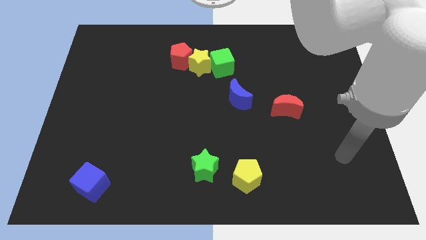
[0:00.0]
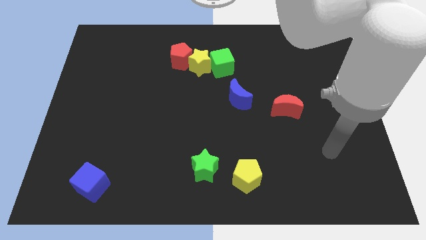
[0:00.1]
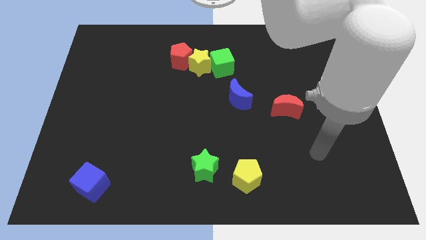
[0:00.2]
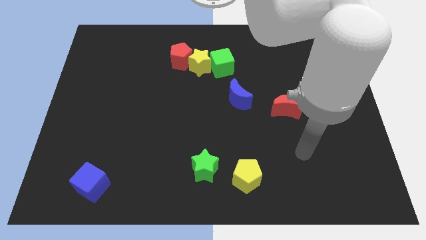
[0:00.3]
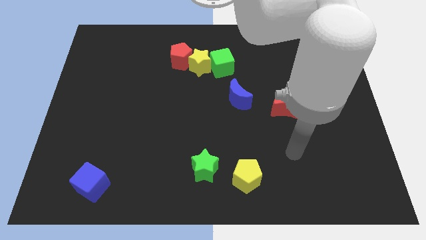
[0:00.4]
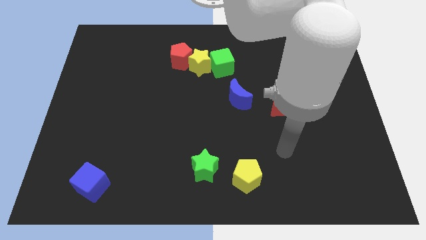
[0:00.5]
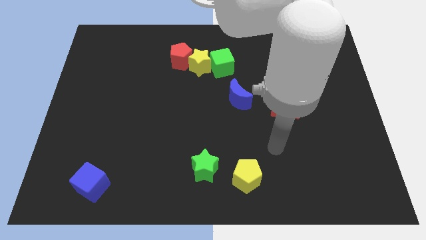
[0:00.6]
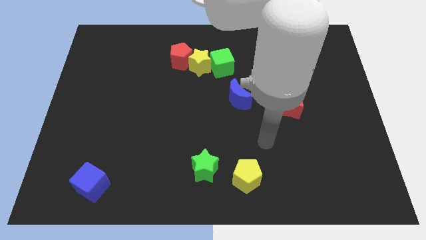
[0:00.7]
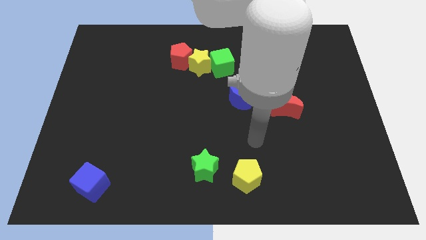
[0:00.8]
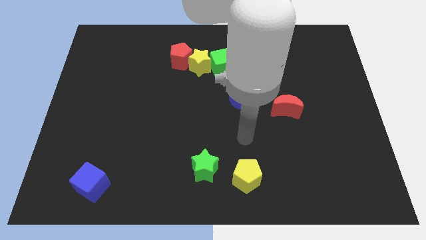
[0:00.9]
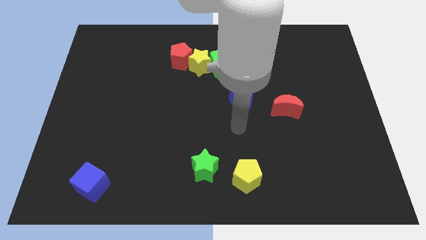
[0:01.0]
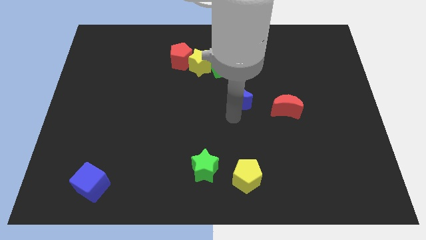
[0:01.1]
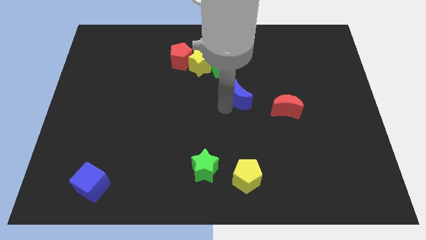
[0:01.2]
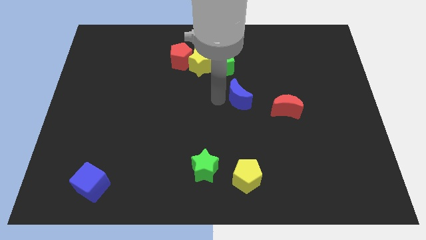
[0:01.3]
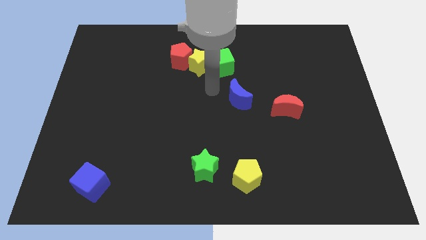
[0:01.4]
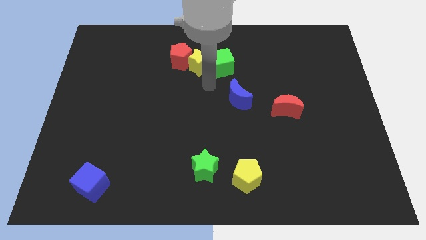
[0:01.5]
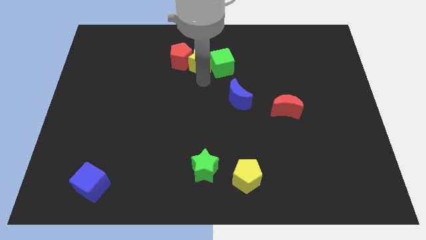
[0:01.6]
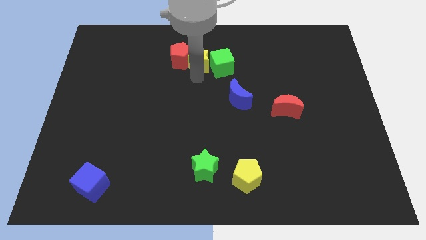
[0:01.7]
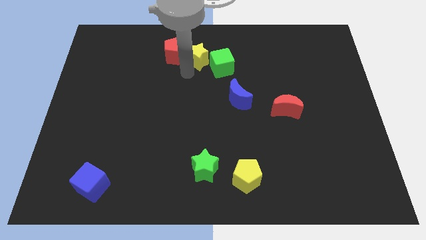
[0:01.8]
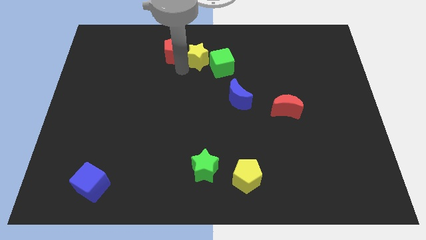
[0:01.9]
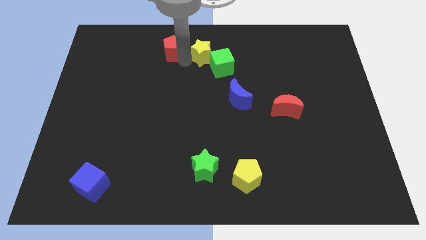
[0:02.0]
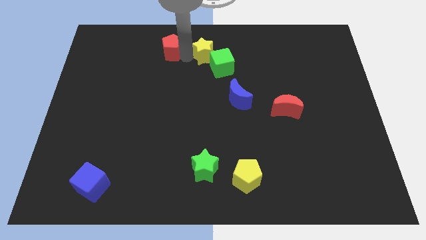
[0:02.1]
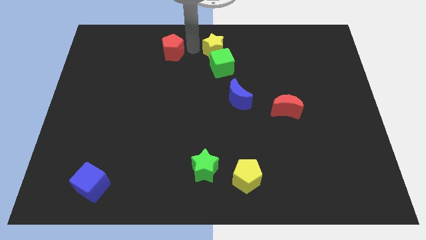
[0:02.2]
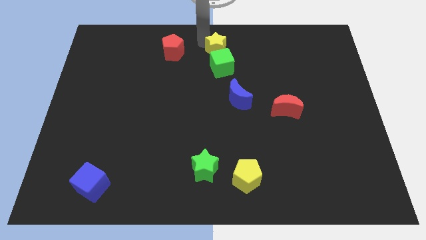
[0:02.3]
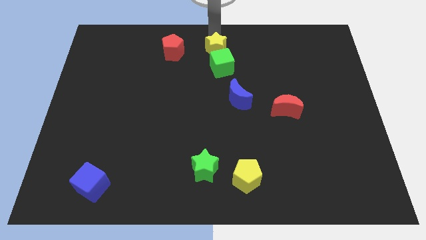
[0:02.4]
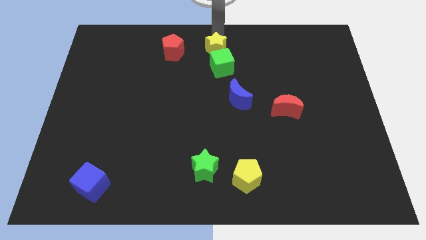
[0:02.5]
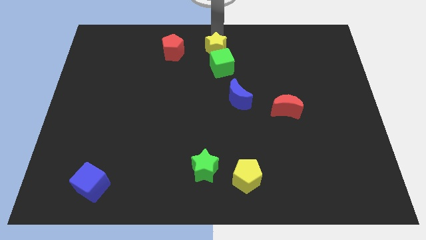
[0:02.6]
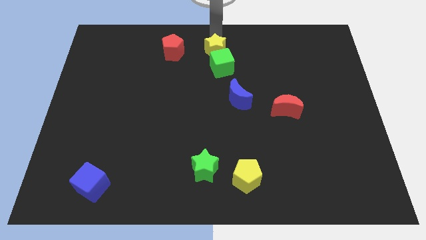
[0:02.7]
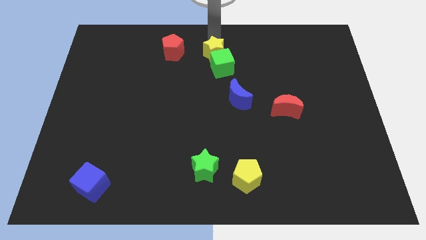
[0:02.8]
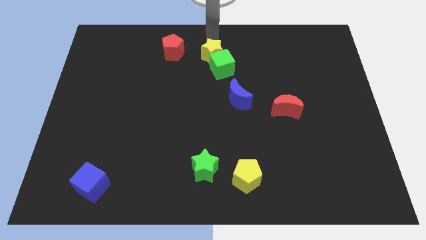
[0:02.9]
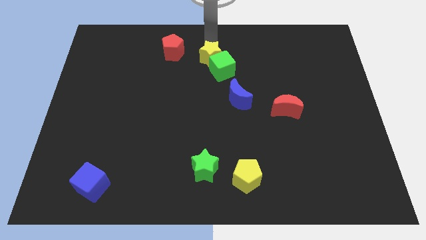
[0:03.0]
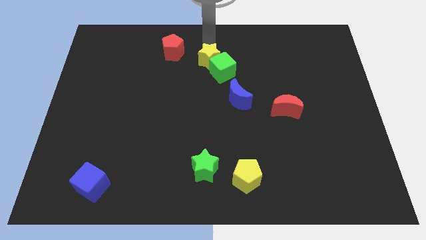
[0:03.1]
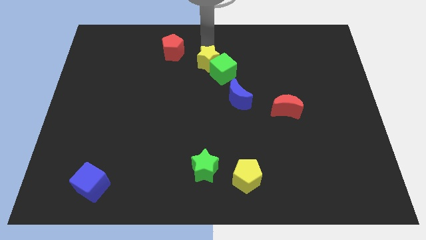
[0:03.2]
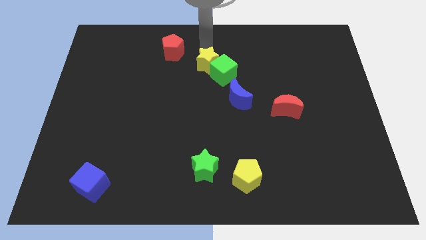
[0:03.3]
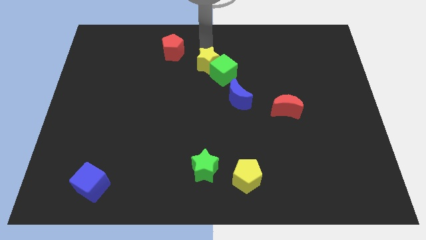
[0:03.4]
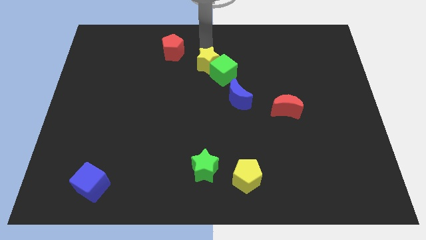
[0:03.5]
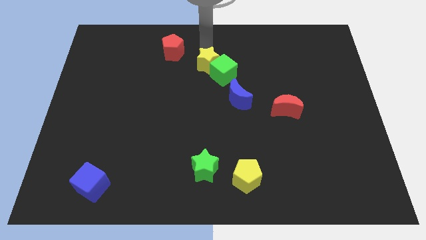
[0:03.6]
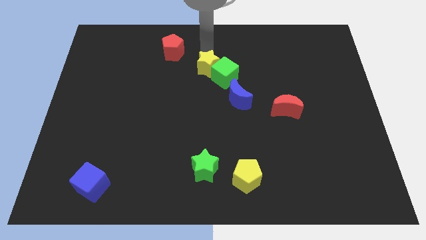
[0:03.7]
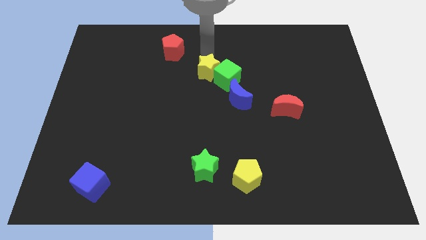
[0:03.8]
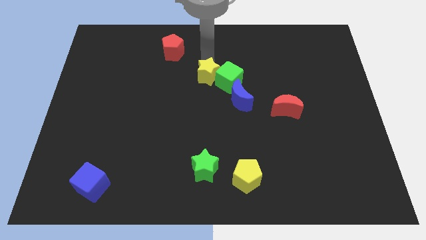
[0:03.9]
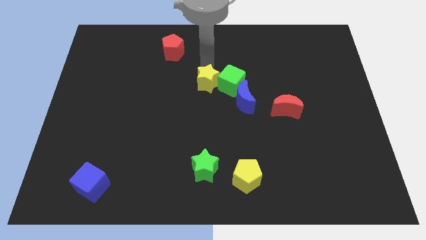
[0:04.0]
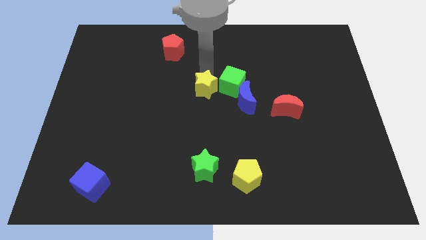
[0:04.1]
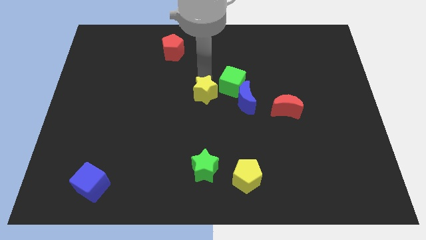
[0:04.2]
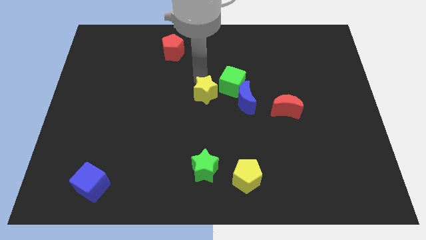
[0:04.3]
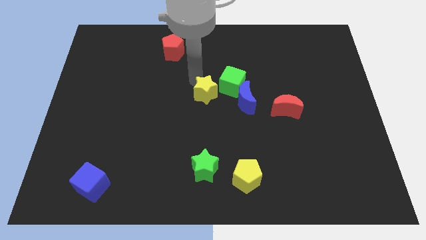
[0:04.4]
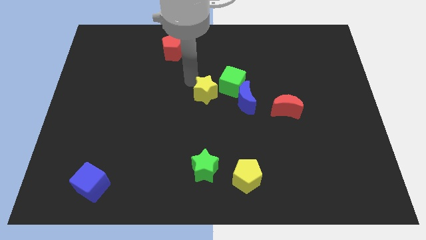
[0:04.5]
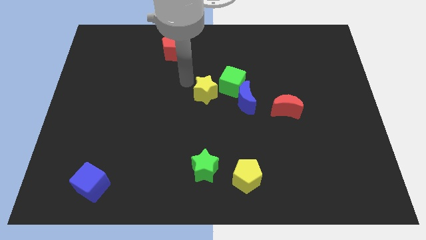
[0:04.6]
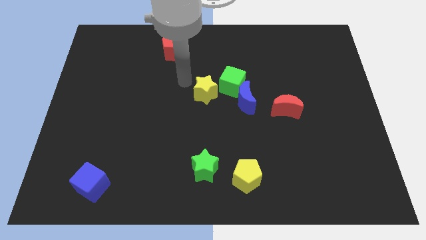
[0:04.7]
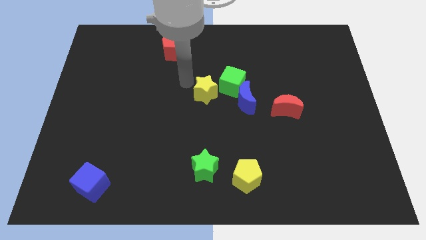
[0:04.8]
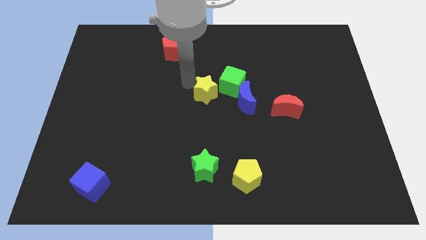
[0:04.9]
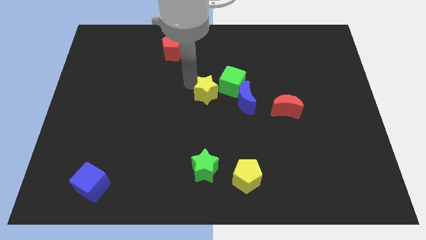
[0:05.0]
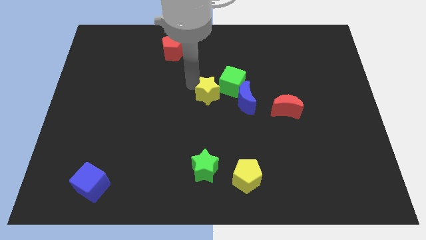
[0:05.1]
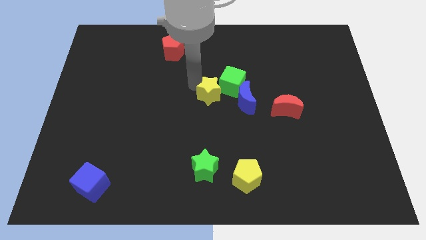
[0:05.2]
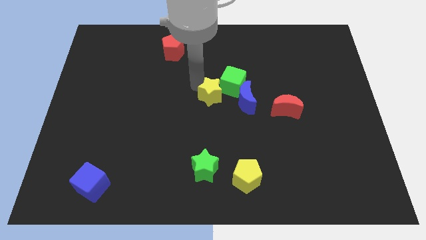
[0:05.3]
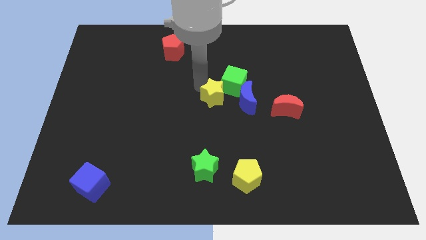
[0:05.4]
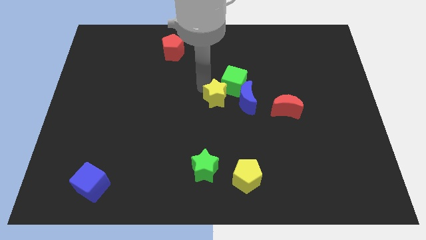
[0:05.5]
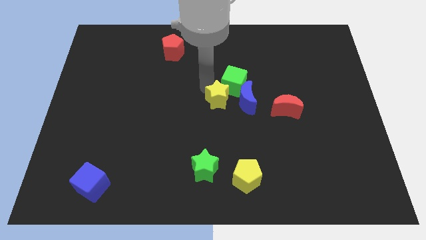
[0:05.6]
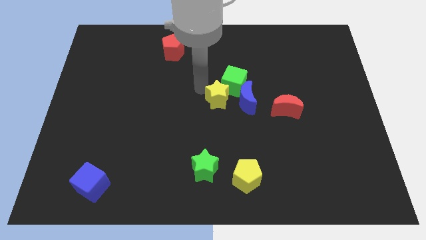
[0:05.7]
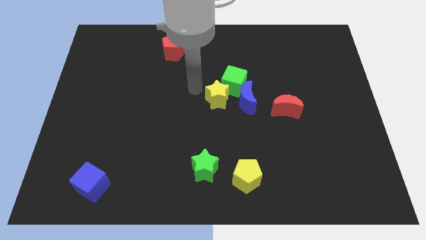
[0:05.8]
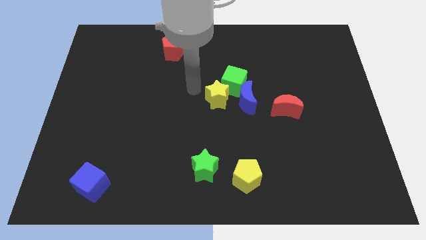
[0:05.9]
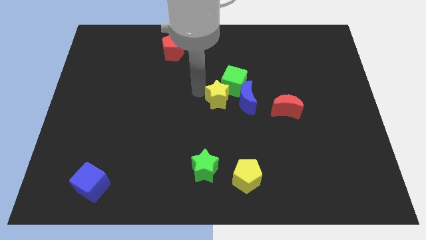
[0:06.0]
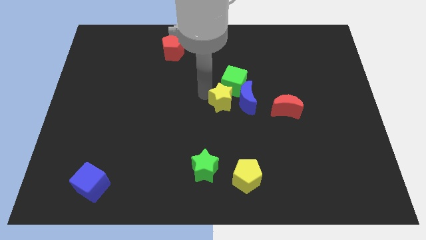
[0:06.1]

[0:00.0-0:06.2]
move the yellow star to the left of the red moon
